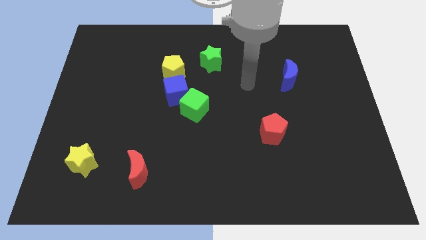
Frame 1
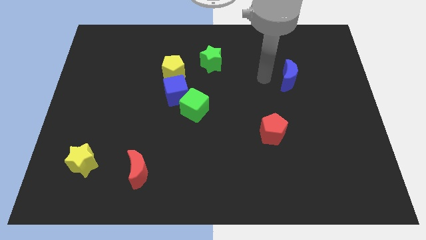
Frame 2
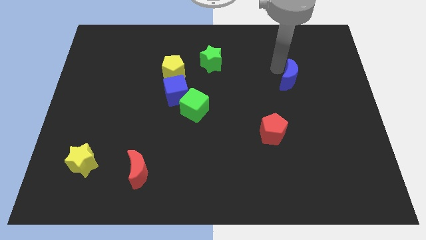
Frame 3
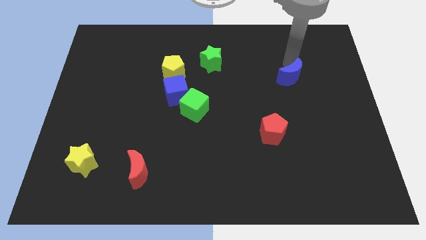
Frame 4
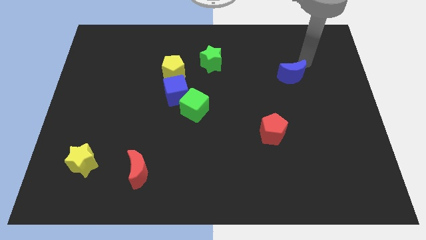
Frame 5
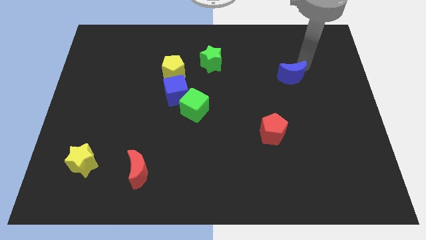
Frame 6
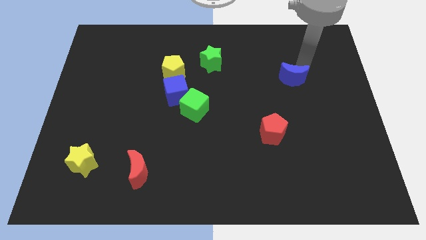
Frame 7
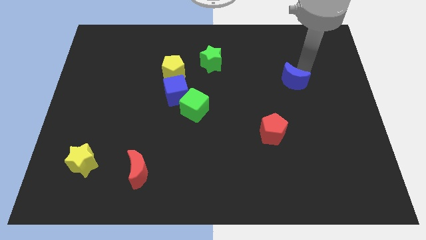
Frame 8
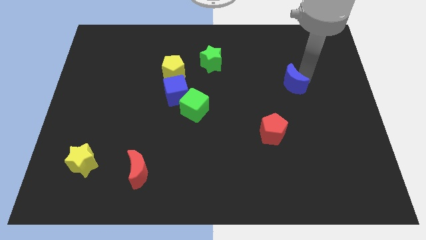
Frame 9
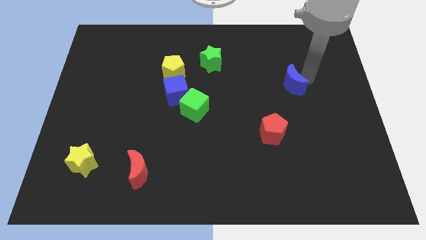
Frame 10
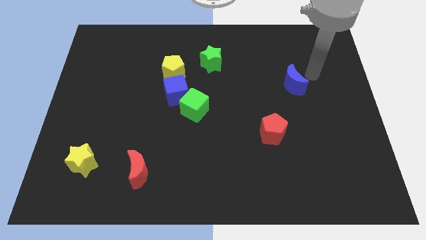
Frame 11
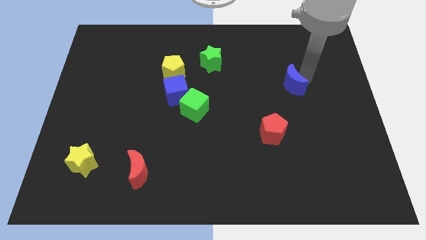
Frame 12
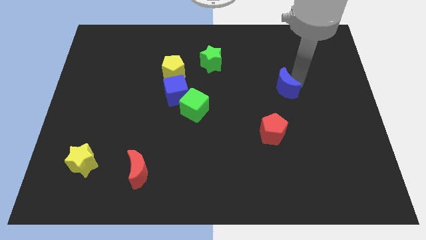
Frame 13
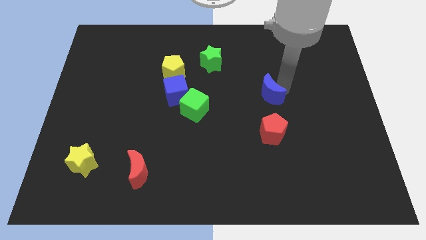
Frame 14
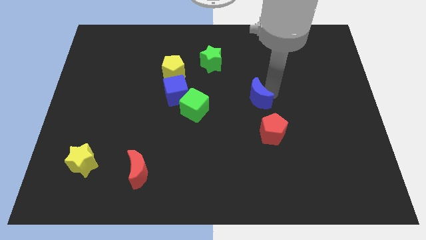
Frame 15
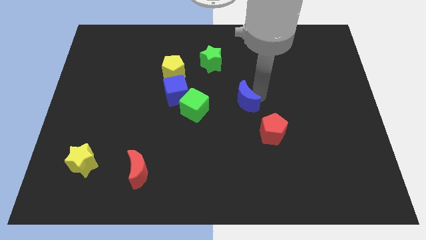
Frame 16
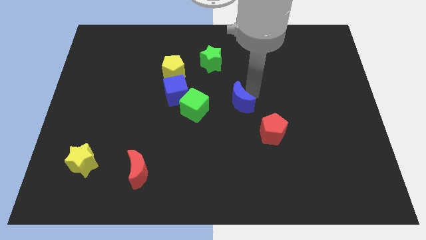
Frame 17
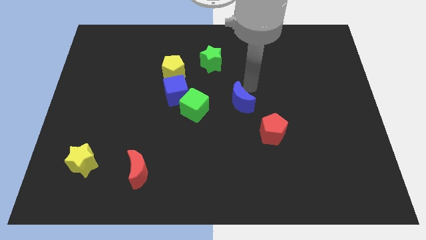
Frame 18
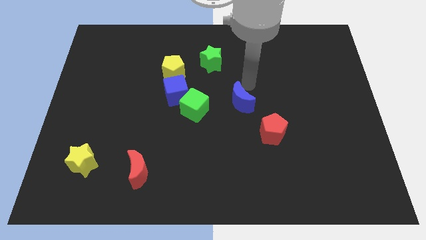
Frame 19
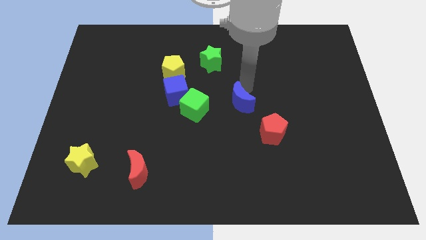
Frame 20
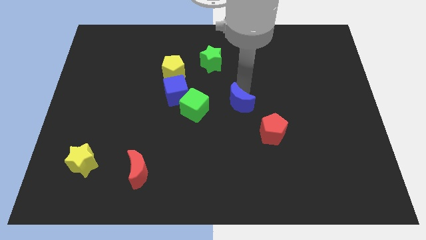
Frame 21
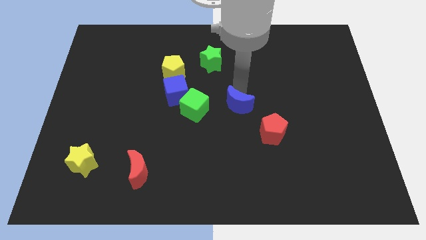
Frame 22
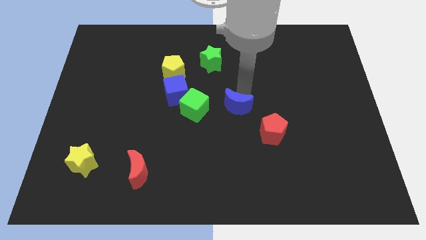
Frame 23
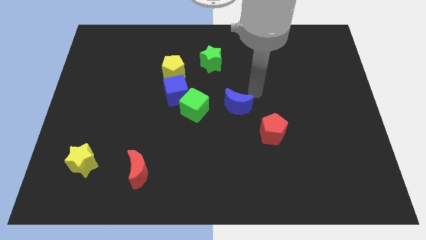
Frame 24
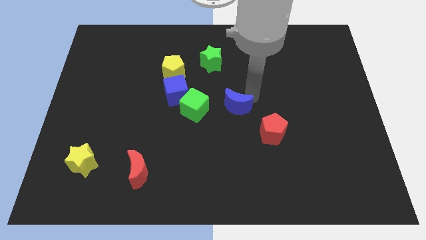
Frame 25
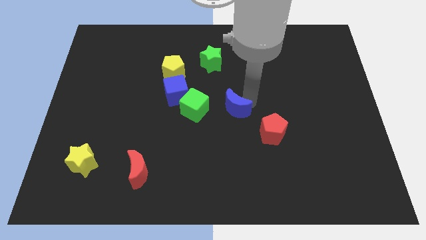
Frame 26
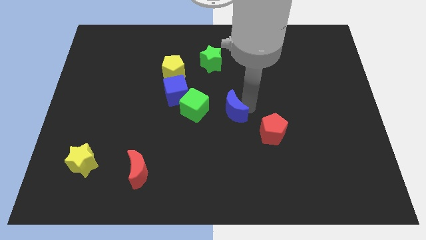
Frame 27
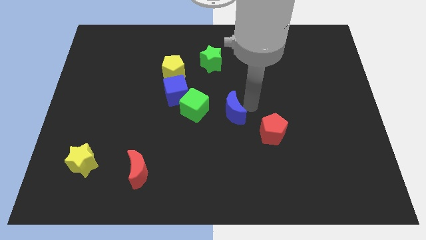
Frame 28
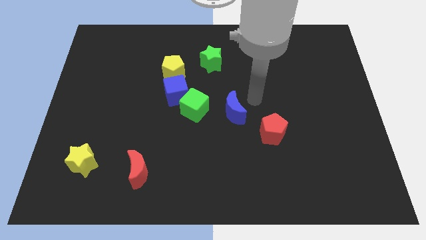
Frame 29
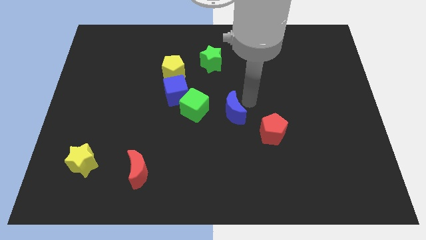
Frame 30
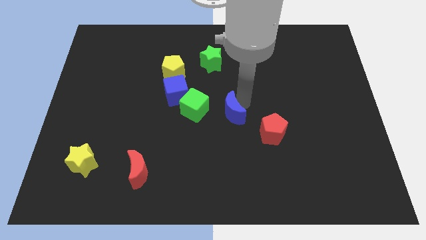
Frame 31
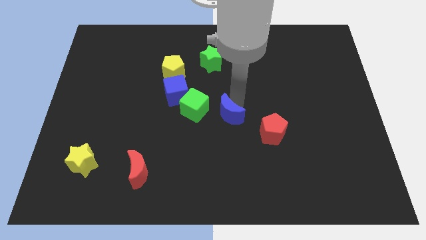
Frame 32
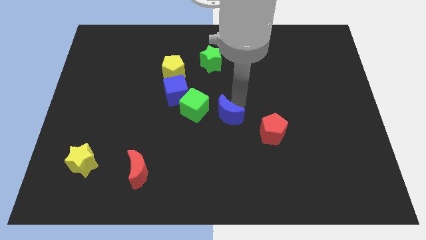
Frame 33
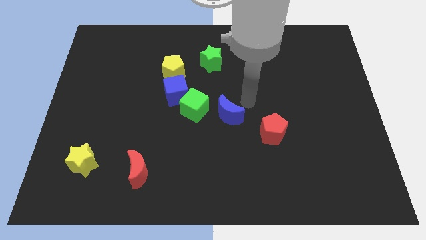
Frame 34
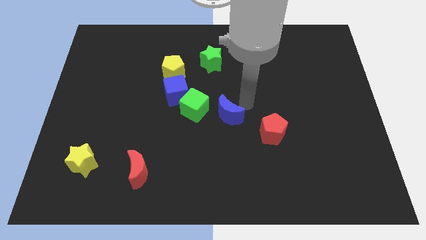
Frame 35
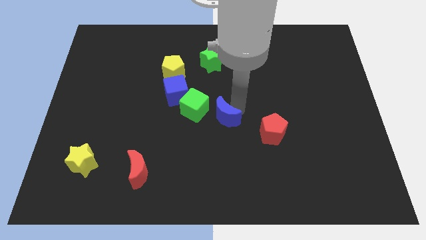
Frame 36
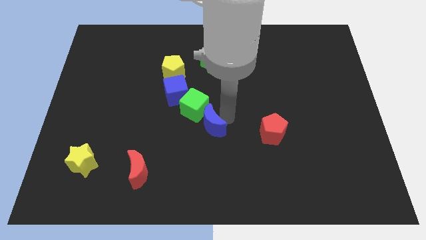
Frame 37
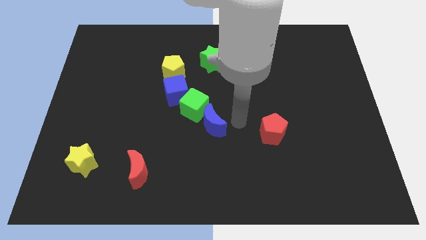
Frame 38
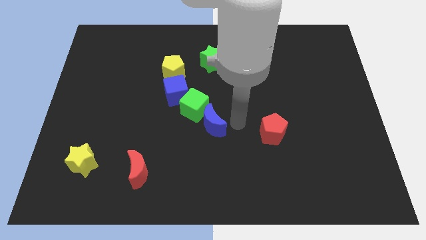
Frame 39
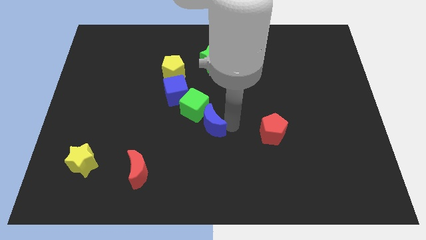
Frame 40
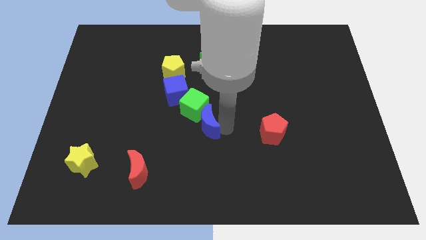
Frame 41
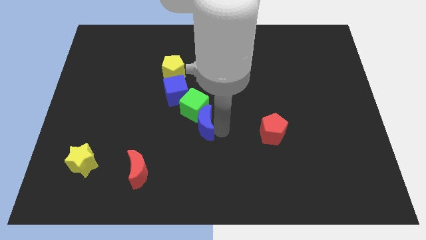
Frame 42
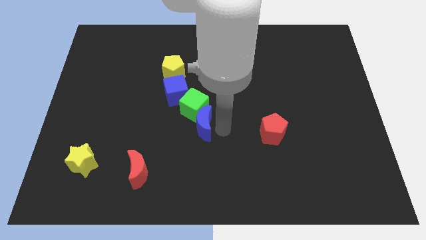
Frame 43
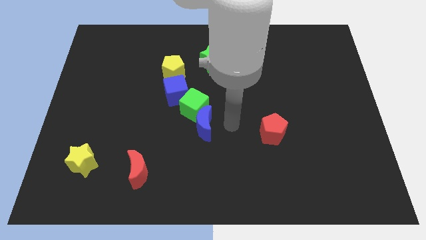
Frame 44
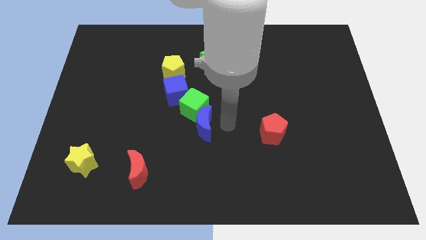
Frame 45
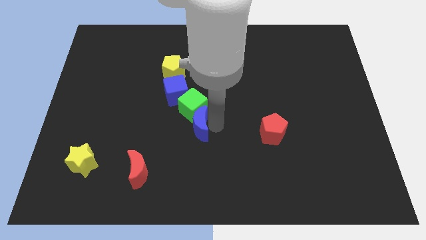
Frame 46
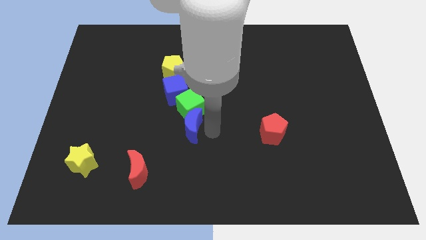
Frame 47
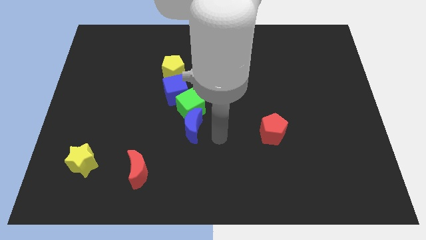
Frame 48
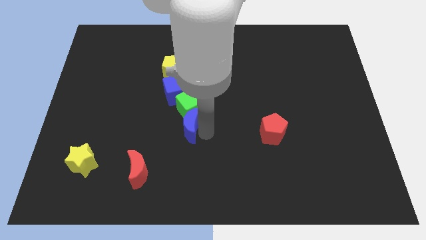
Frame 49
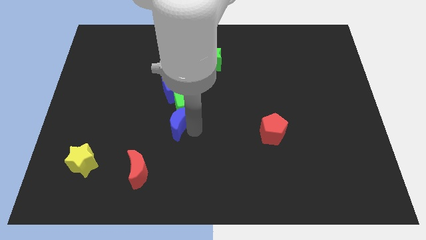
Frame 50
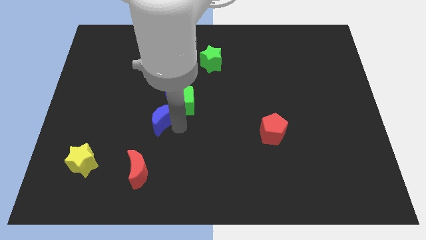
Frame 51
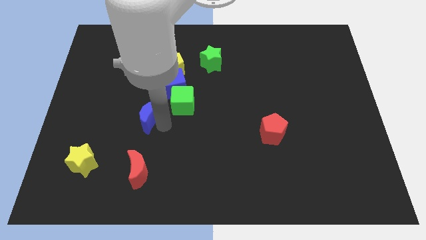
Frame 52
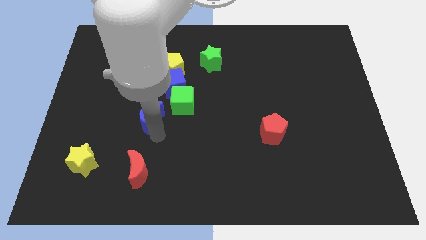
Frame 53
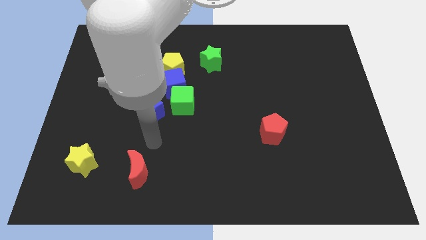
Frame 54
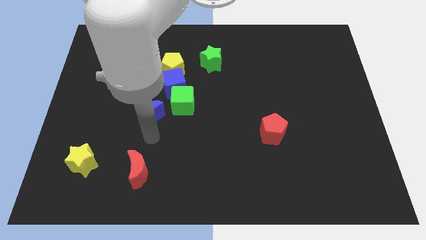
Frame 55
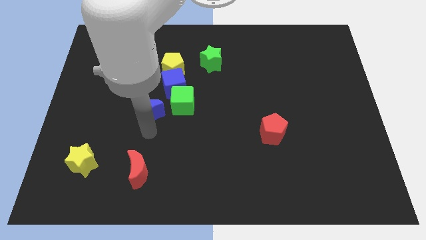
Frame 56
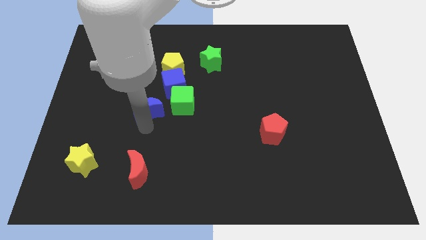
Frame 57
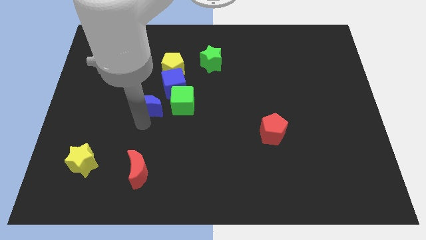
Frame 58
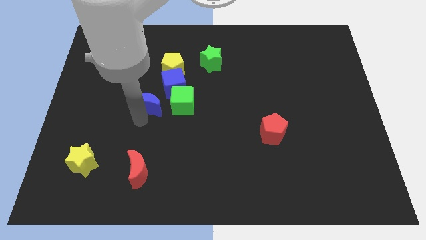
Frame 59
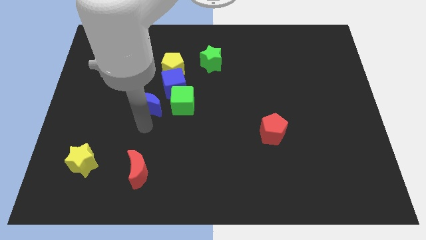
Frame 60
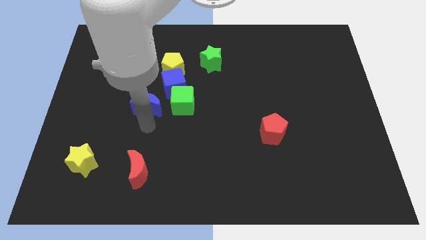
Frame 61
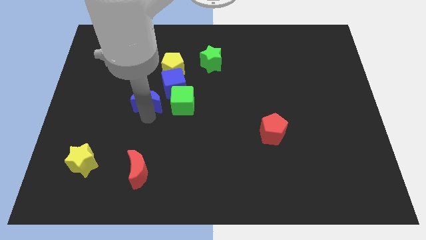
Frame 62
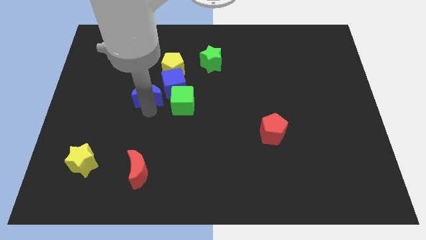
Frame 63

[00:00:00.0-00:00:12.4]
push the blue moon diagonally up and to the left of the green cube
